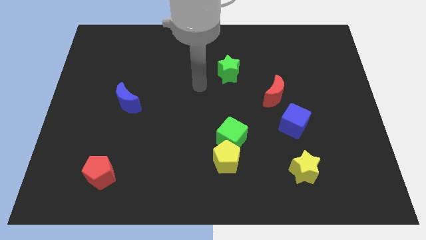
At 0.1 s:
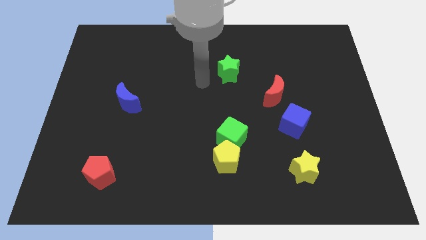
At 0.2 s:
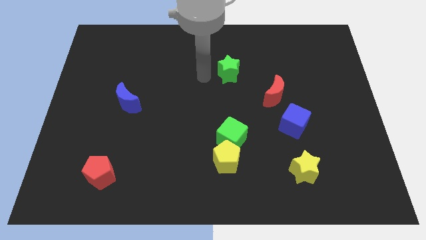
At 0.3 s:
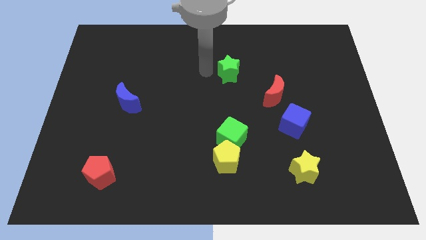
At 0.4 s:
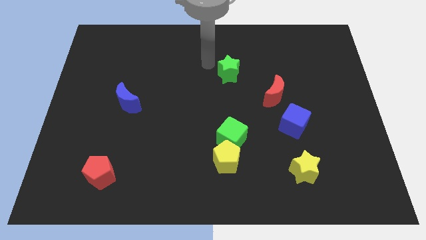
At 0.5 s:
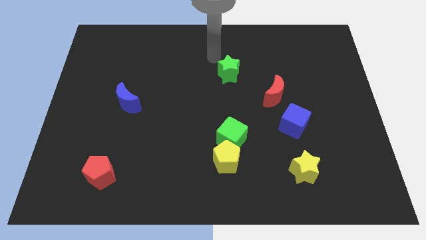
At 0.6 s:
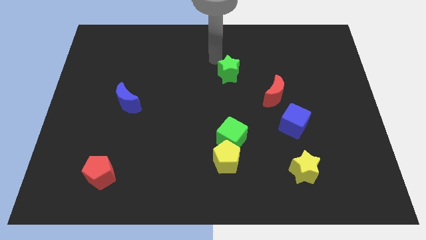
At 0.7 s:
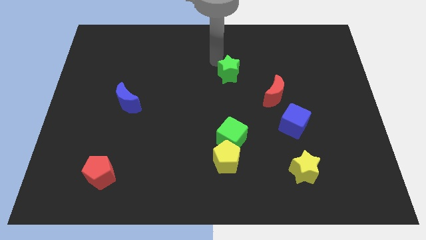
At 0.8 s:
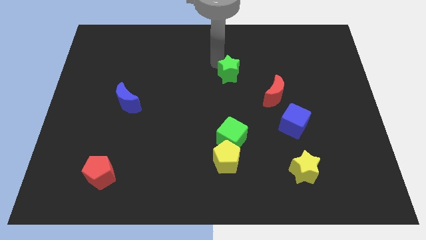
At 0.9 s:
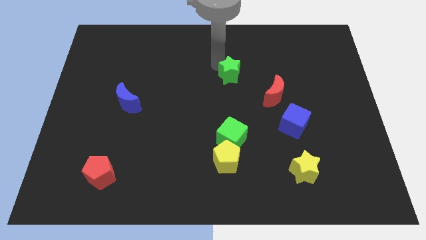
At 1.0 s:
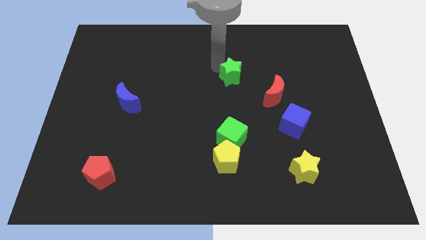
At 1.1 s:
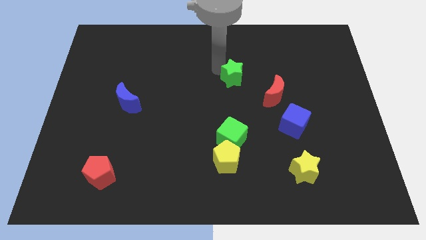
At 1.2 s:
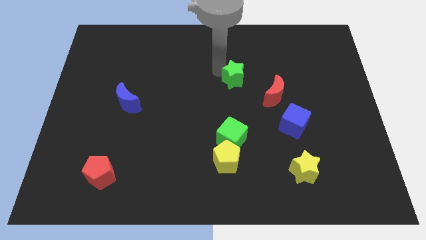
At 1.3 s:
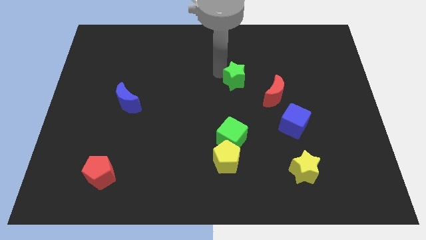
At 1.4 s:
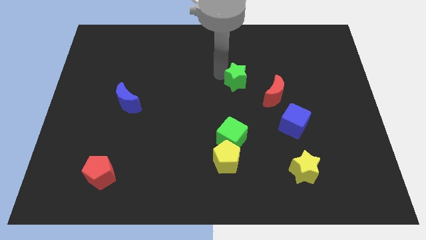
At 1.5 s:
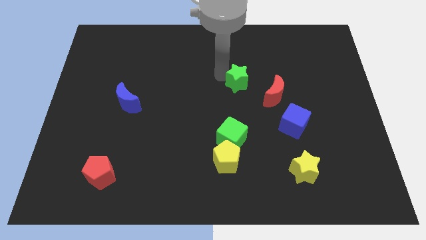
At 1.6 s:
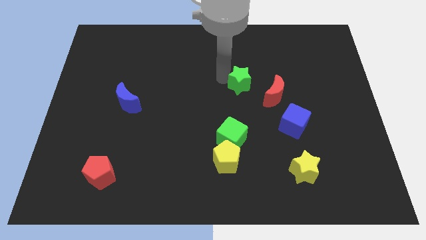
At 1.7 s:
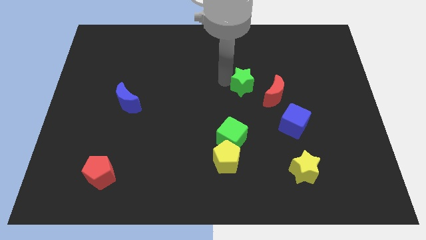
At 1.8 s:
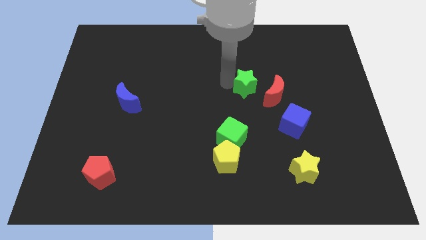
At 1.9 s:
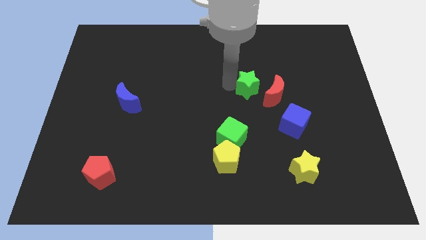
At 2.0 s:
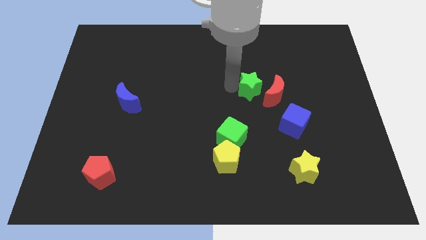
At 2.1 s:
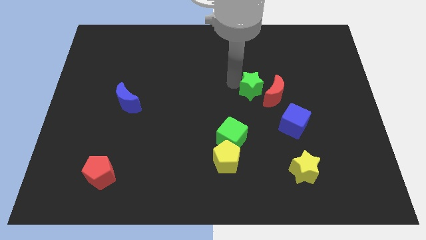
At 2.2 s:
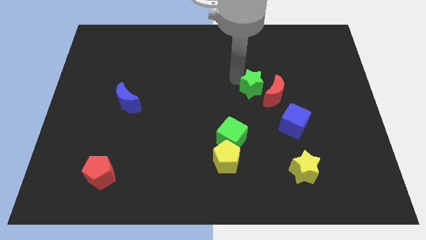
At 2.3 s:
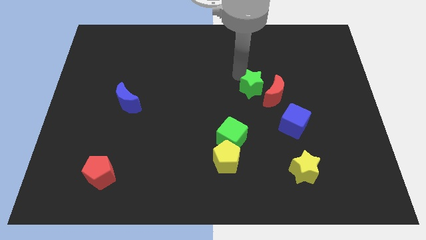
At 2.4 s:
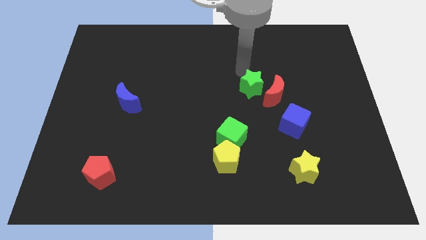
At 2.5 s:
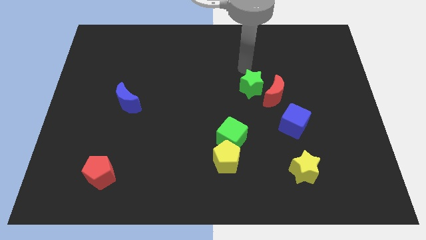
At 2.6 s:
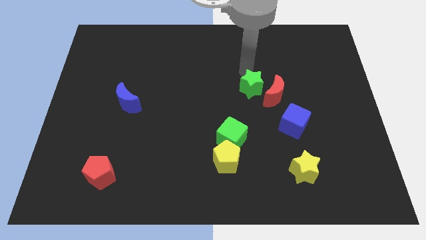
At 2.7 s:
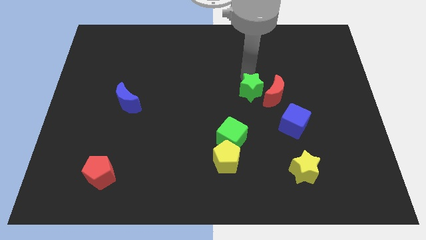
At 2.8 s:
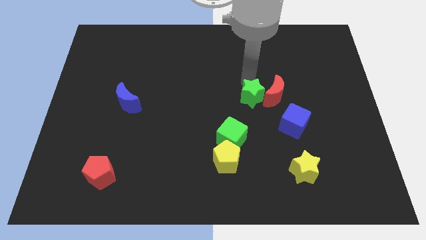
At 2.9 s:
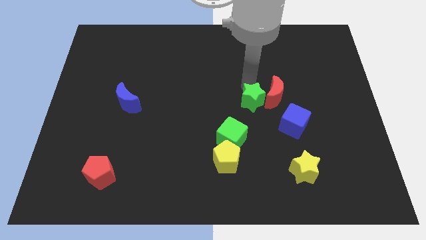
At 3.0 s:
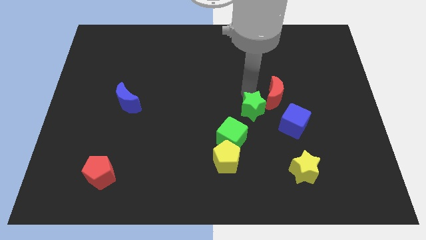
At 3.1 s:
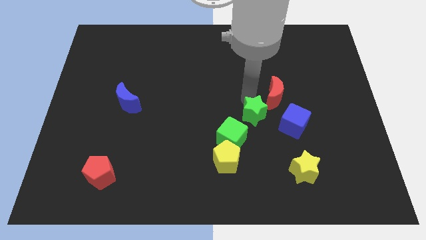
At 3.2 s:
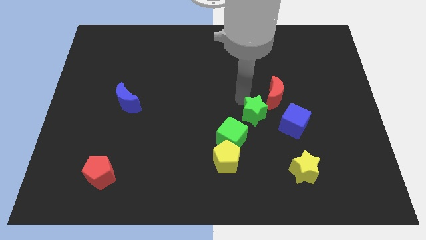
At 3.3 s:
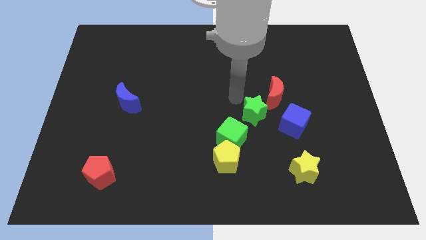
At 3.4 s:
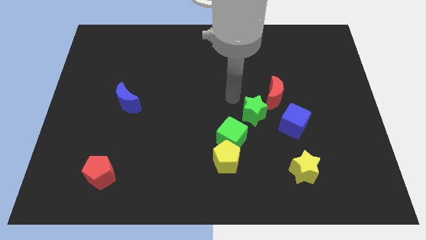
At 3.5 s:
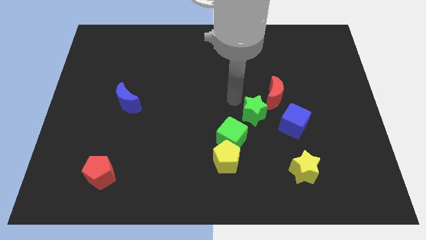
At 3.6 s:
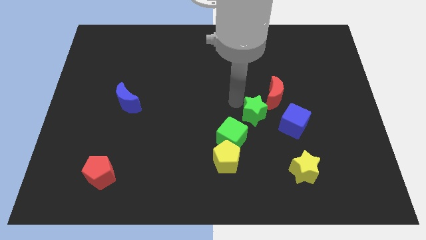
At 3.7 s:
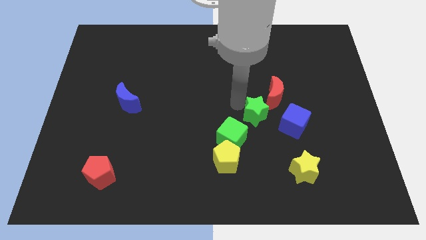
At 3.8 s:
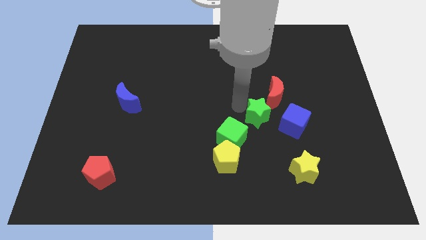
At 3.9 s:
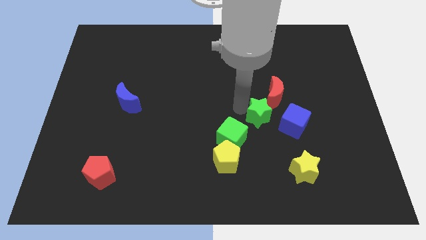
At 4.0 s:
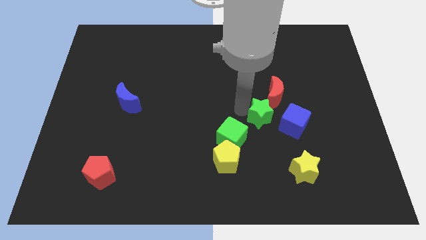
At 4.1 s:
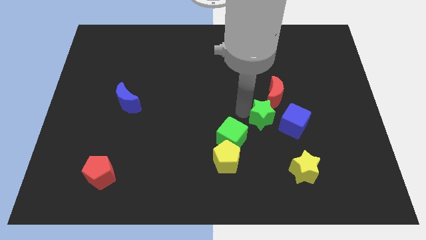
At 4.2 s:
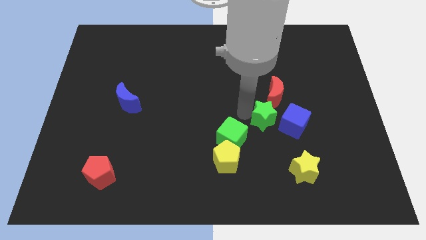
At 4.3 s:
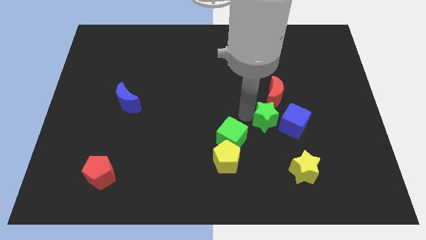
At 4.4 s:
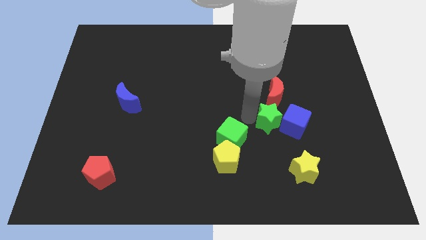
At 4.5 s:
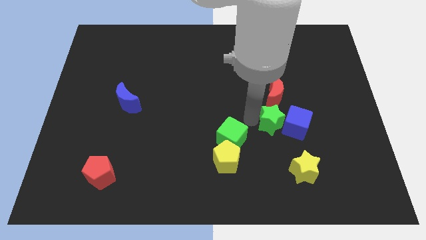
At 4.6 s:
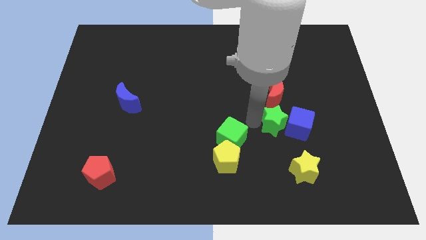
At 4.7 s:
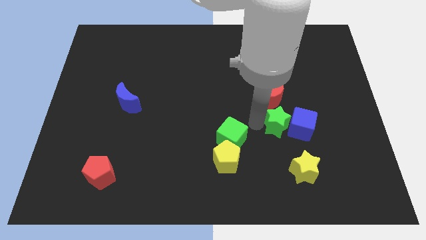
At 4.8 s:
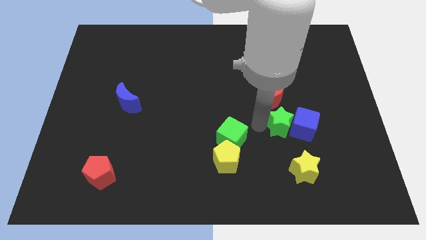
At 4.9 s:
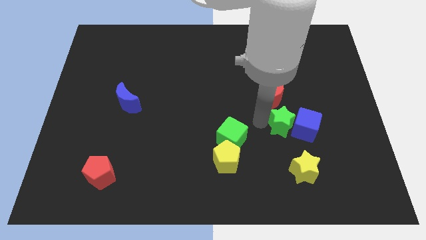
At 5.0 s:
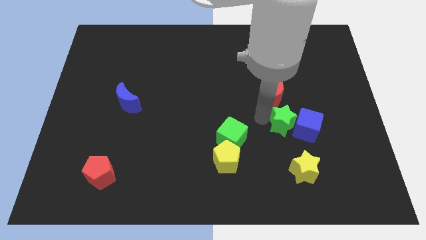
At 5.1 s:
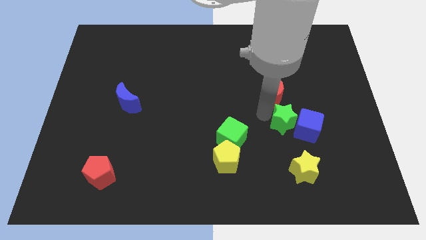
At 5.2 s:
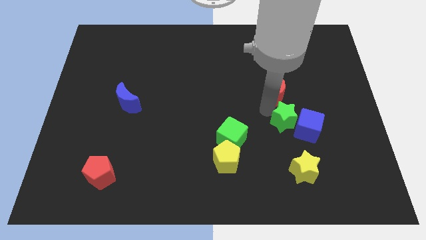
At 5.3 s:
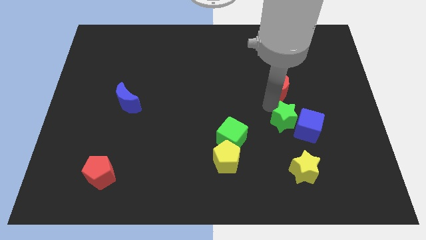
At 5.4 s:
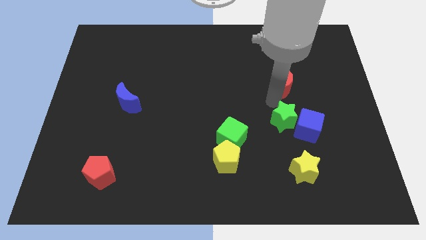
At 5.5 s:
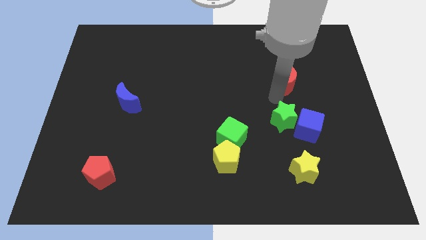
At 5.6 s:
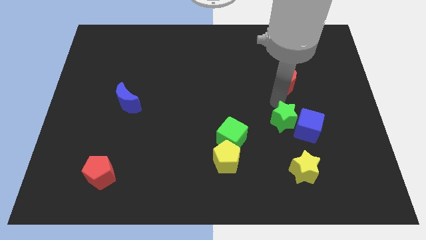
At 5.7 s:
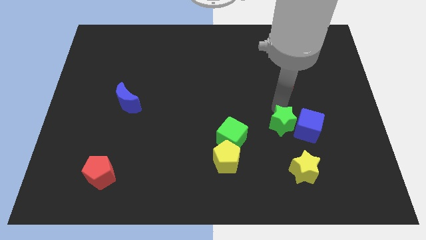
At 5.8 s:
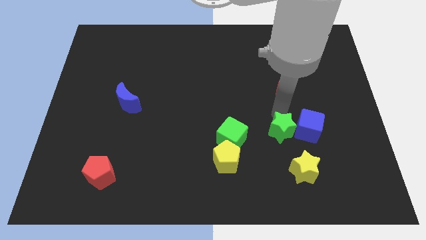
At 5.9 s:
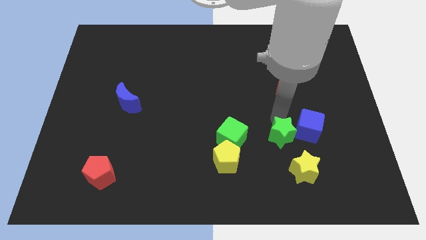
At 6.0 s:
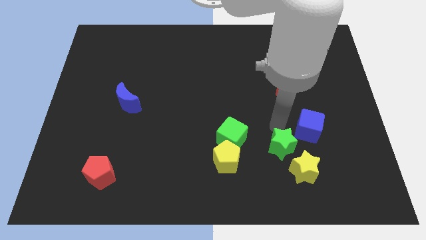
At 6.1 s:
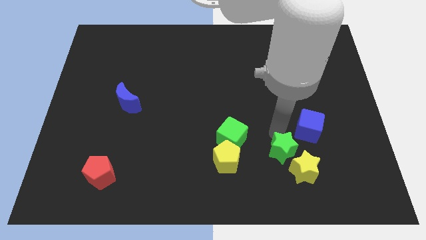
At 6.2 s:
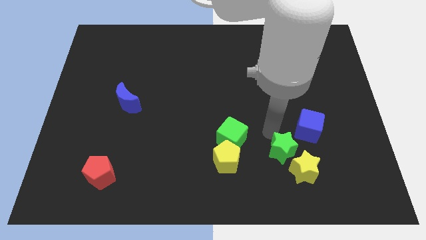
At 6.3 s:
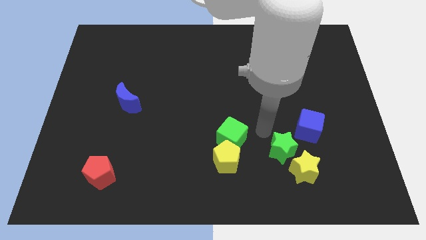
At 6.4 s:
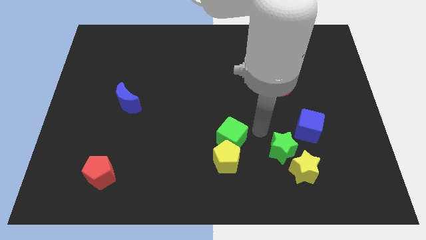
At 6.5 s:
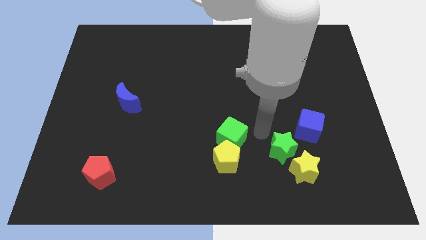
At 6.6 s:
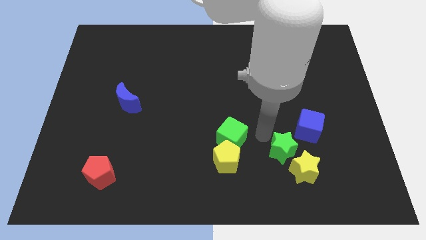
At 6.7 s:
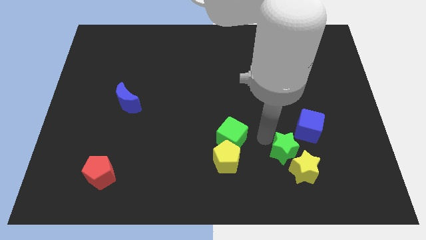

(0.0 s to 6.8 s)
put the green star next to the yellow star

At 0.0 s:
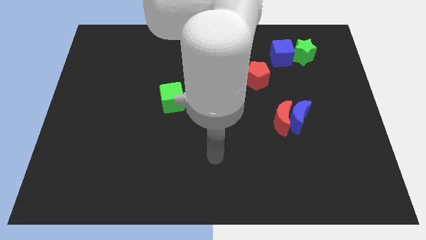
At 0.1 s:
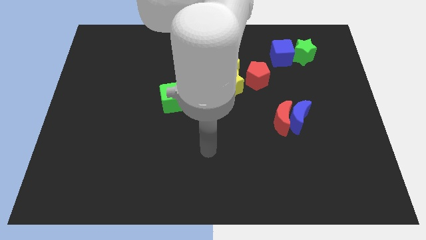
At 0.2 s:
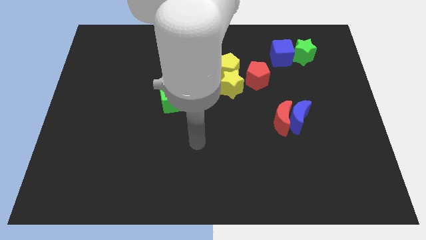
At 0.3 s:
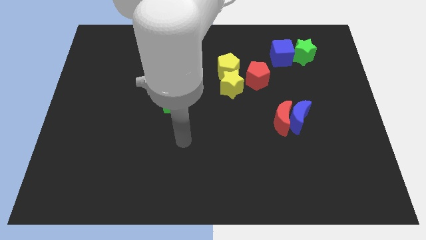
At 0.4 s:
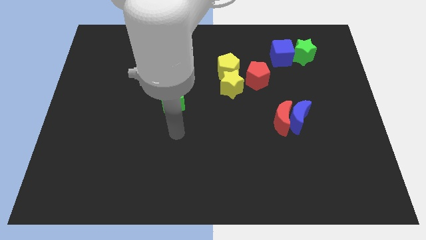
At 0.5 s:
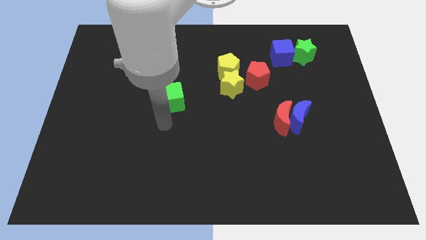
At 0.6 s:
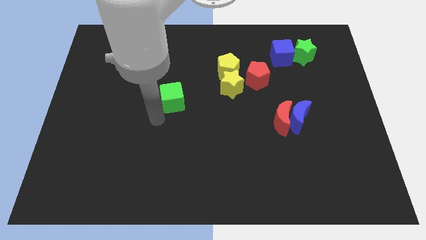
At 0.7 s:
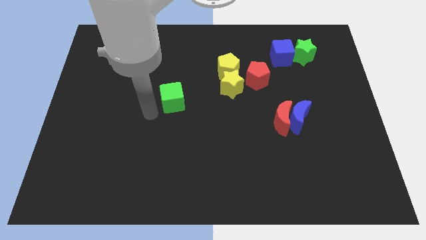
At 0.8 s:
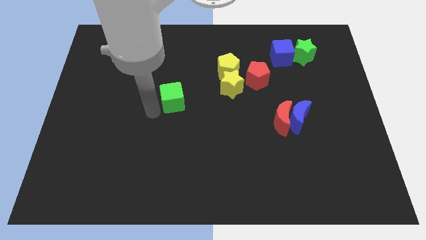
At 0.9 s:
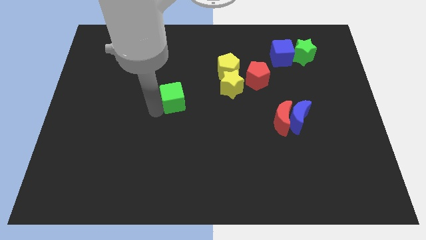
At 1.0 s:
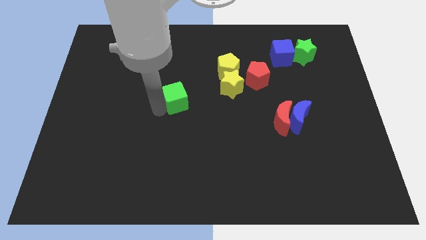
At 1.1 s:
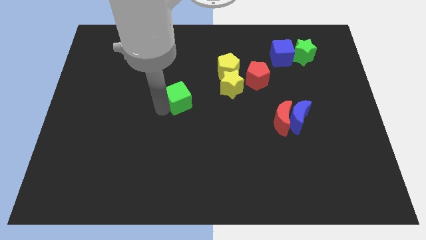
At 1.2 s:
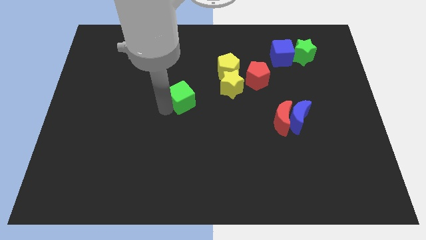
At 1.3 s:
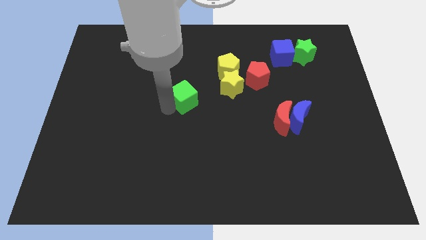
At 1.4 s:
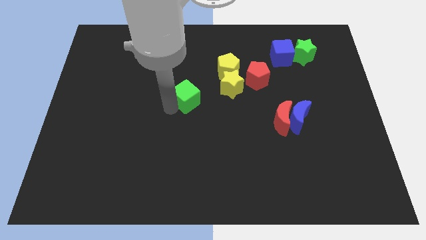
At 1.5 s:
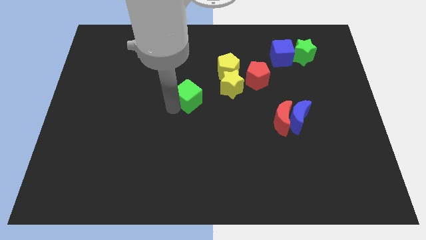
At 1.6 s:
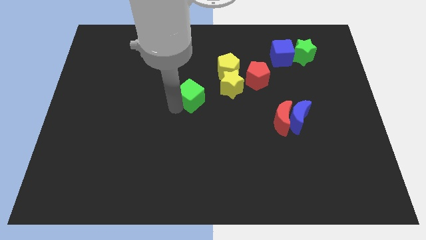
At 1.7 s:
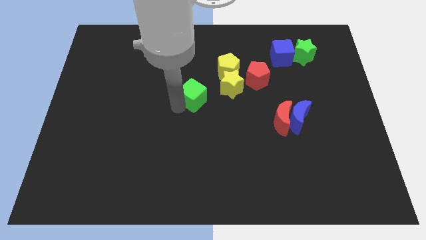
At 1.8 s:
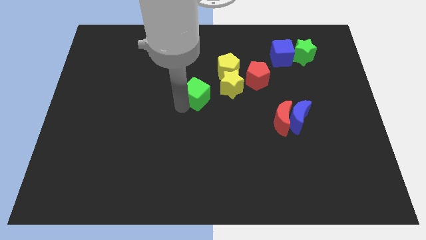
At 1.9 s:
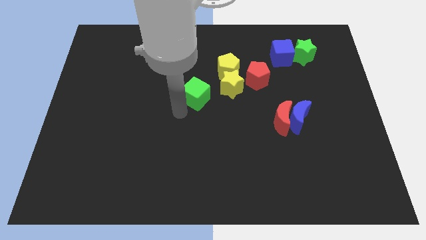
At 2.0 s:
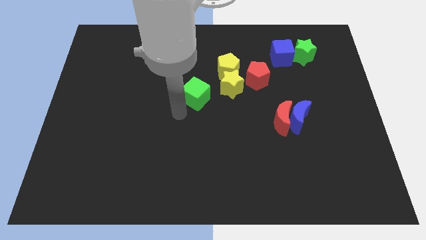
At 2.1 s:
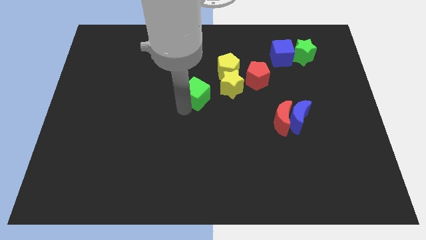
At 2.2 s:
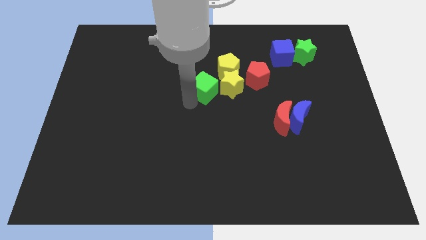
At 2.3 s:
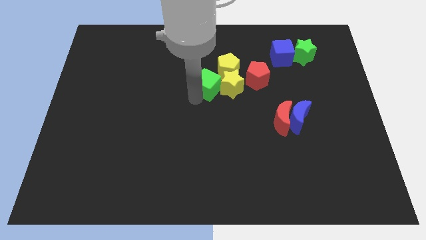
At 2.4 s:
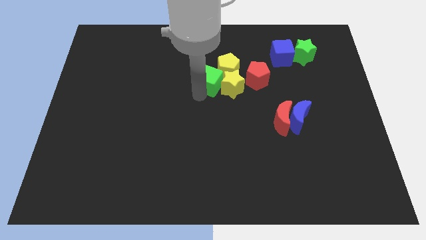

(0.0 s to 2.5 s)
slide the green cube towards the yellow pentagon
